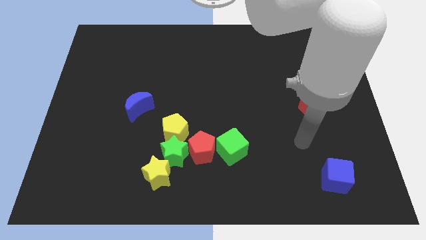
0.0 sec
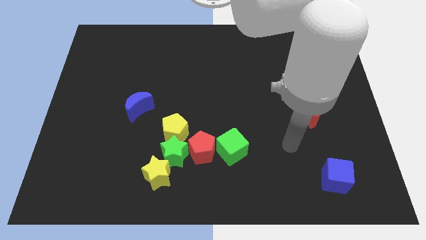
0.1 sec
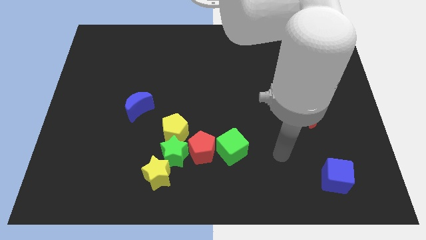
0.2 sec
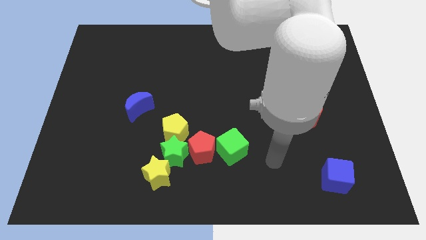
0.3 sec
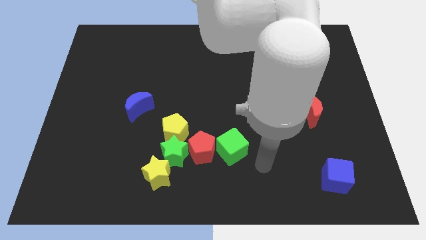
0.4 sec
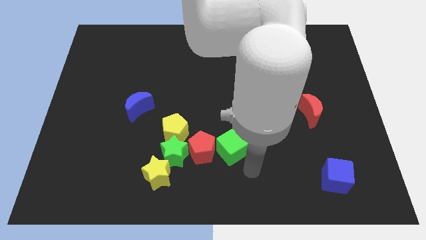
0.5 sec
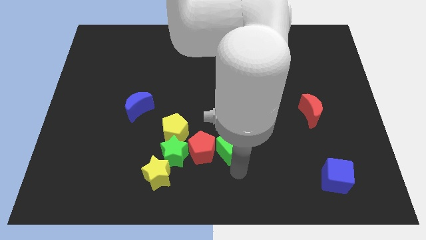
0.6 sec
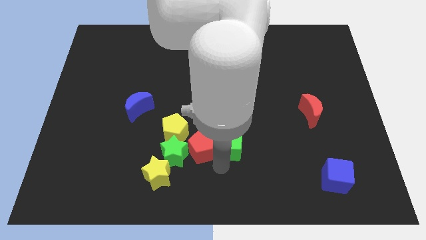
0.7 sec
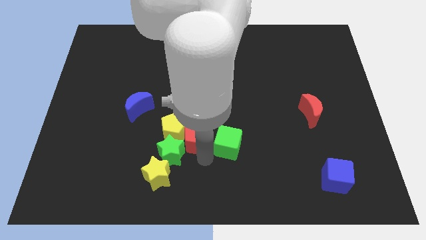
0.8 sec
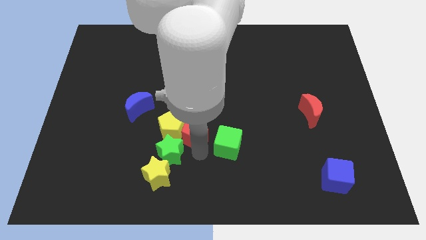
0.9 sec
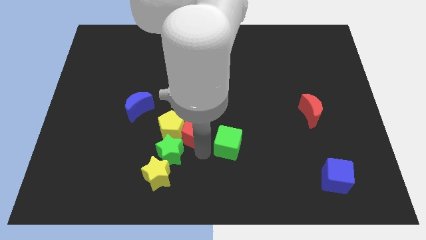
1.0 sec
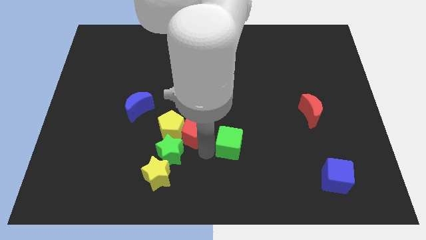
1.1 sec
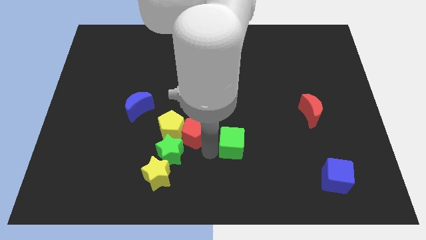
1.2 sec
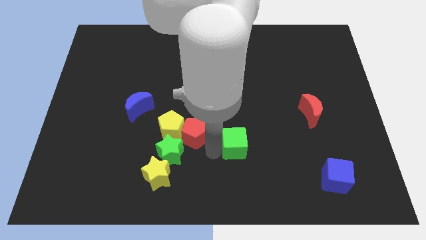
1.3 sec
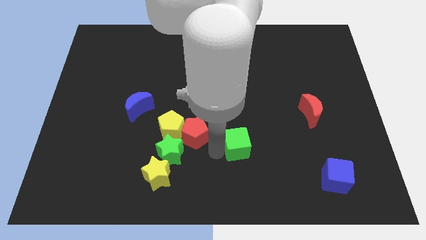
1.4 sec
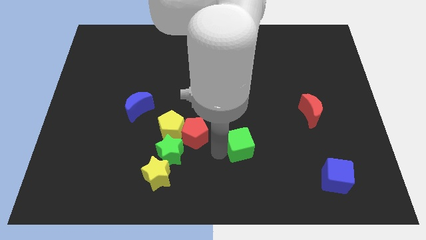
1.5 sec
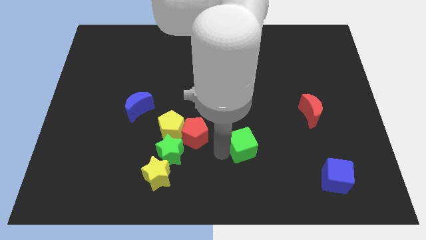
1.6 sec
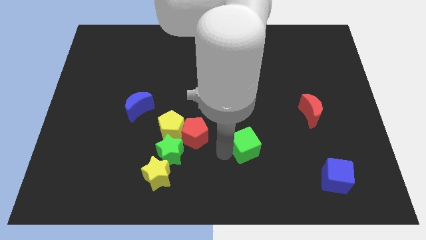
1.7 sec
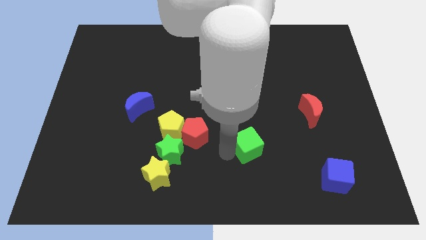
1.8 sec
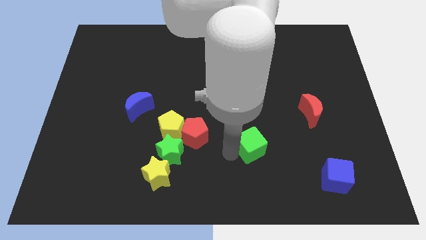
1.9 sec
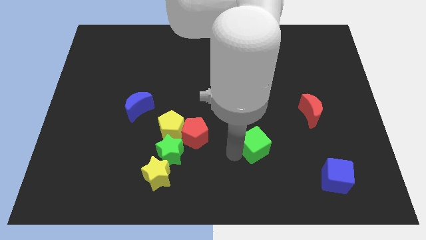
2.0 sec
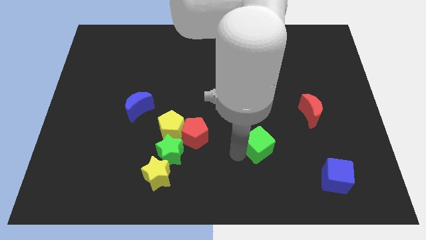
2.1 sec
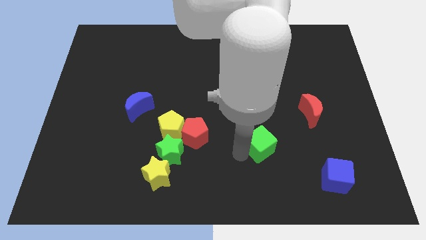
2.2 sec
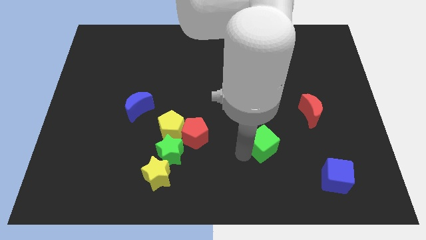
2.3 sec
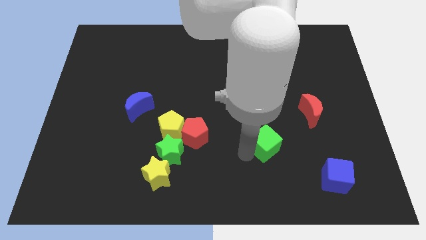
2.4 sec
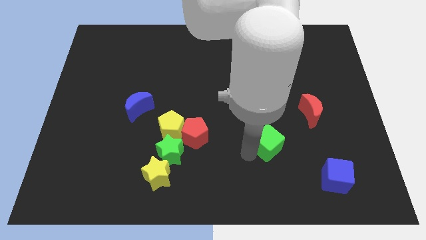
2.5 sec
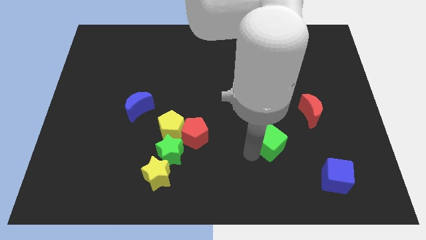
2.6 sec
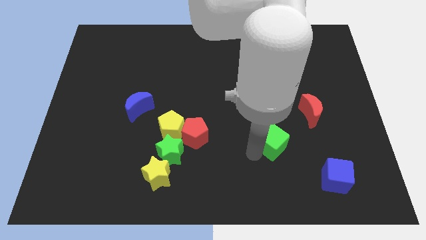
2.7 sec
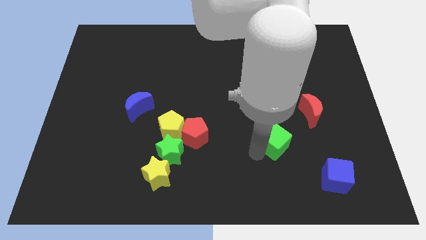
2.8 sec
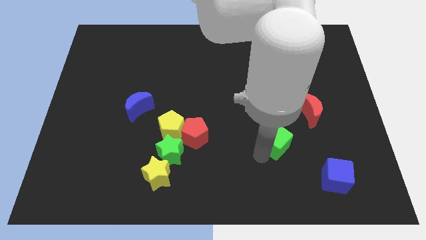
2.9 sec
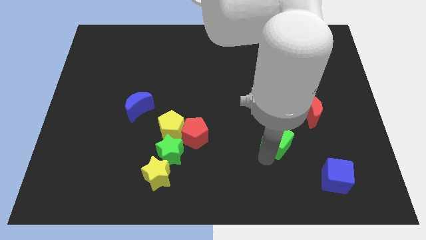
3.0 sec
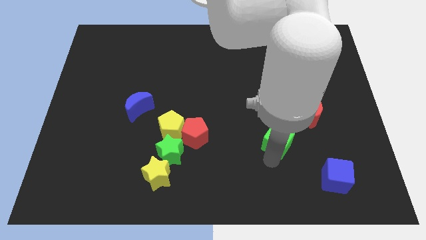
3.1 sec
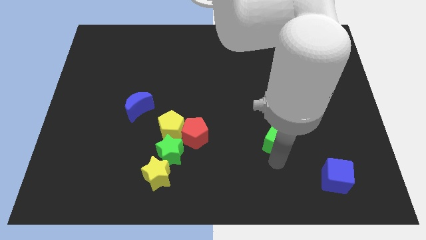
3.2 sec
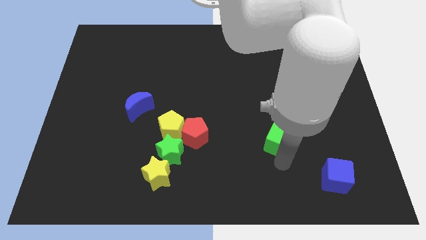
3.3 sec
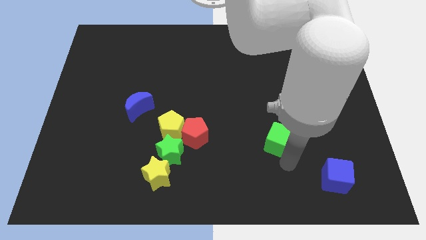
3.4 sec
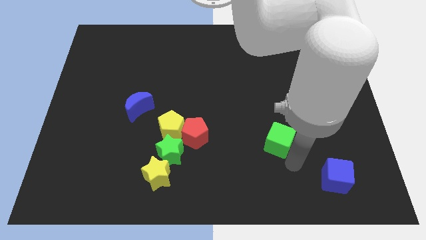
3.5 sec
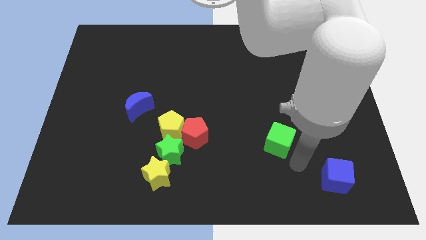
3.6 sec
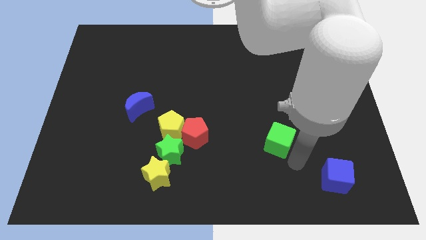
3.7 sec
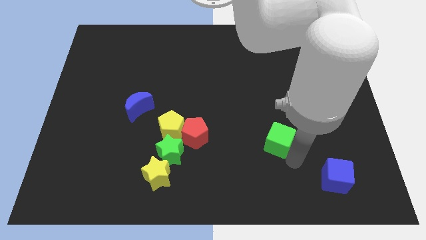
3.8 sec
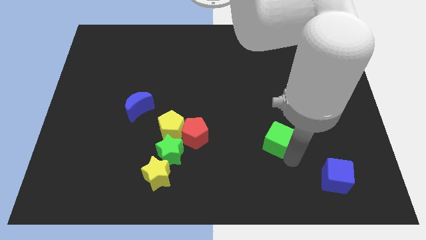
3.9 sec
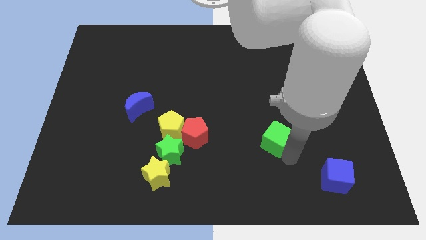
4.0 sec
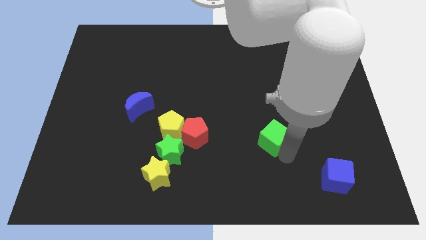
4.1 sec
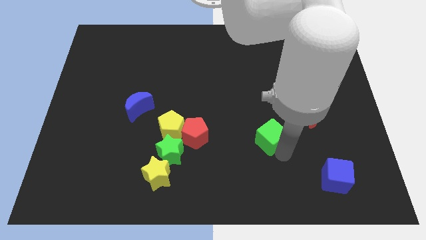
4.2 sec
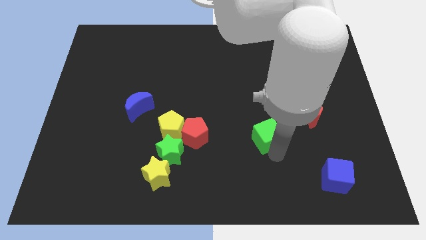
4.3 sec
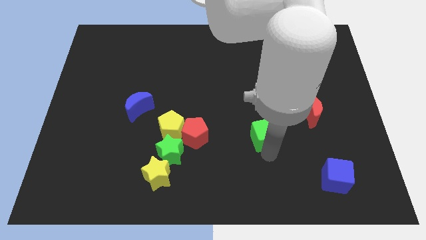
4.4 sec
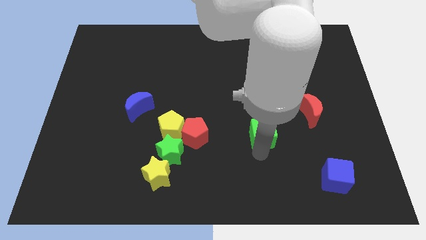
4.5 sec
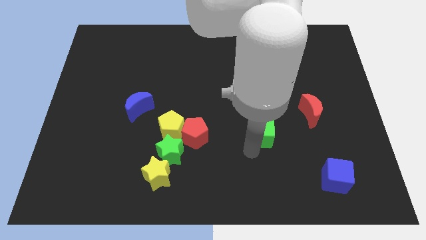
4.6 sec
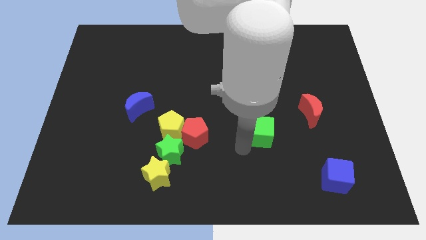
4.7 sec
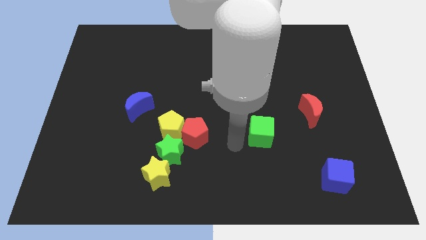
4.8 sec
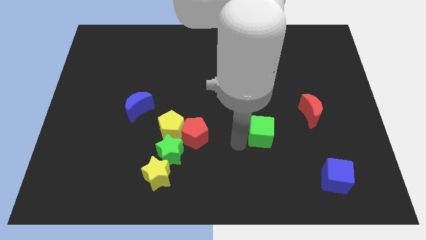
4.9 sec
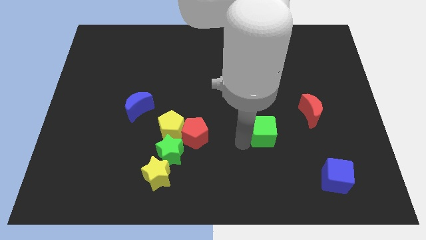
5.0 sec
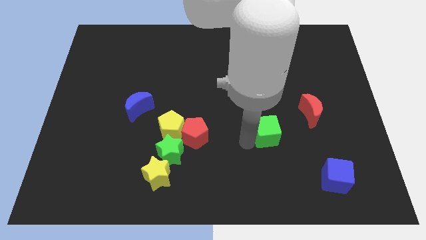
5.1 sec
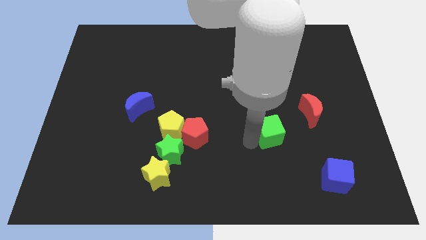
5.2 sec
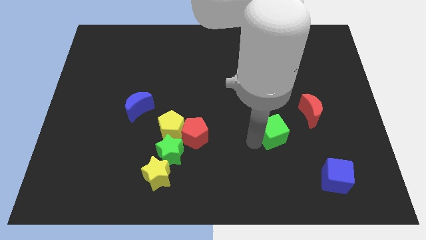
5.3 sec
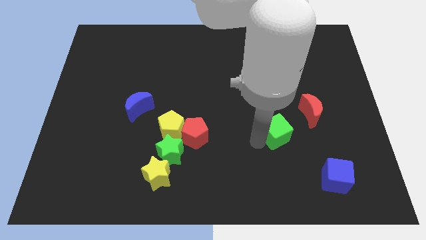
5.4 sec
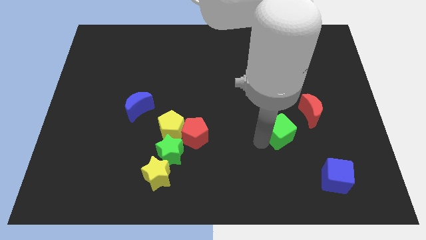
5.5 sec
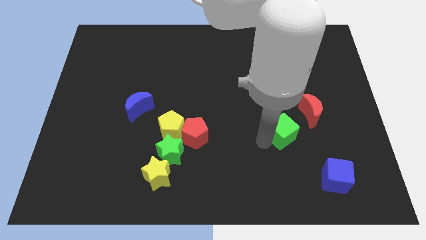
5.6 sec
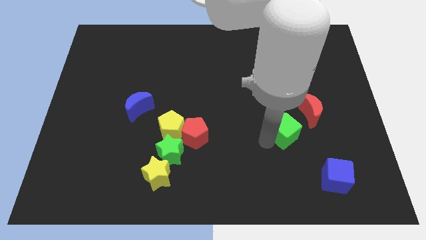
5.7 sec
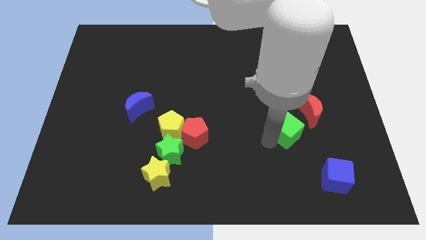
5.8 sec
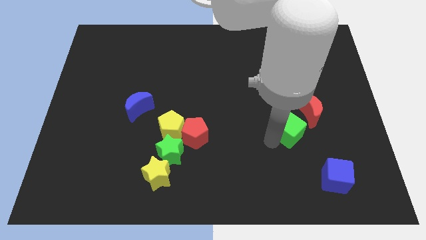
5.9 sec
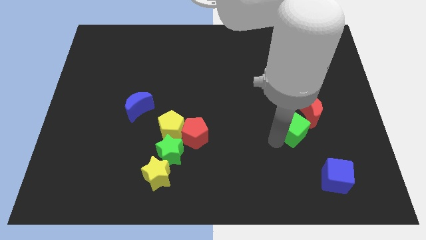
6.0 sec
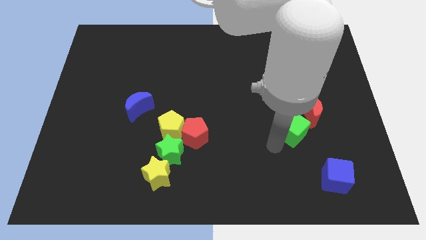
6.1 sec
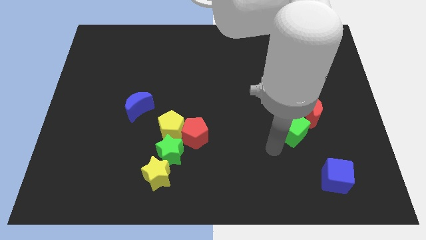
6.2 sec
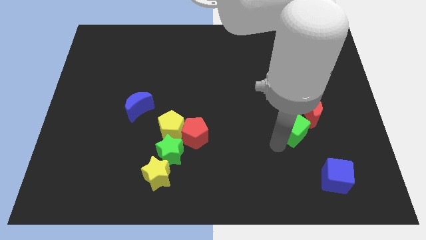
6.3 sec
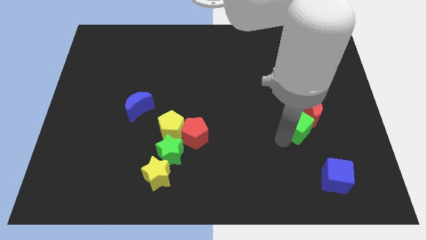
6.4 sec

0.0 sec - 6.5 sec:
slide the green cube close to the red moon

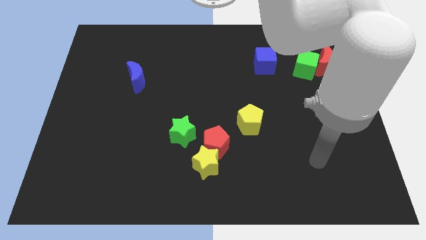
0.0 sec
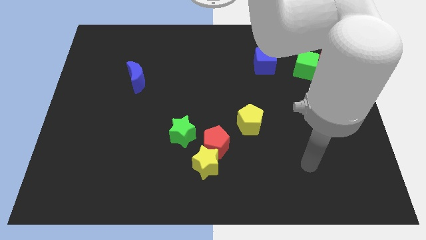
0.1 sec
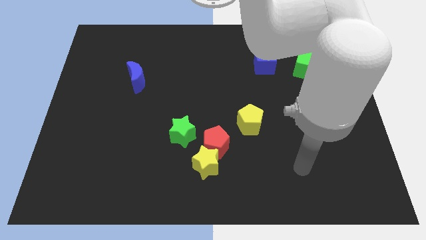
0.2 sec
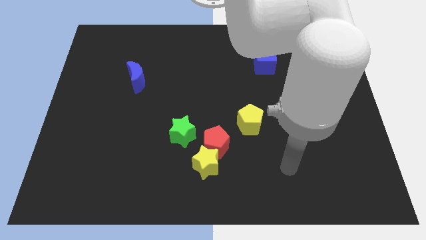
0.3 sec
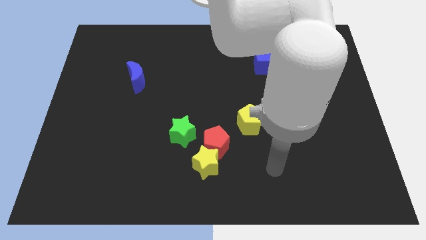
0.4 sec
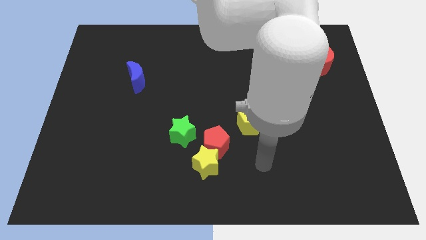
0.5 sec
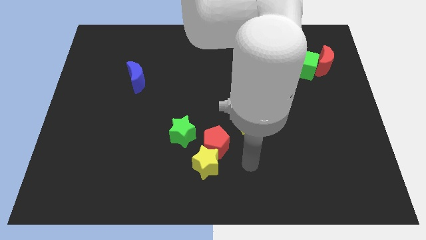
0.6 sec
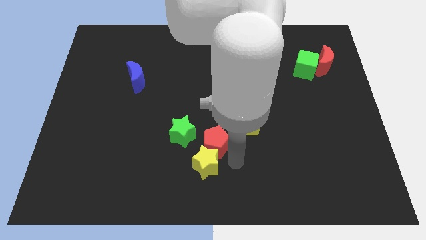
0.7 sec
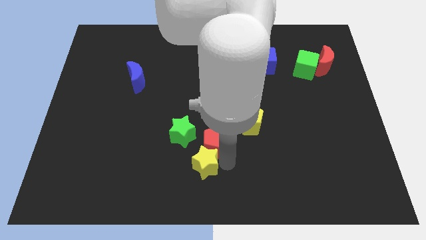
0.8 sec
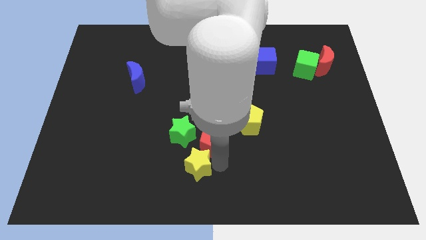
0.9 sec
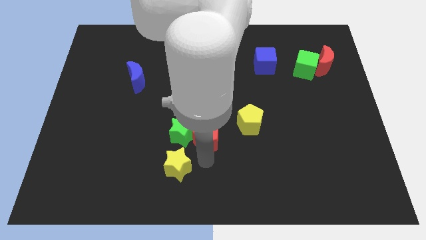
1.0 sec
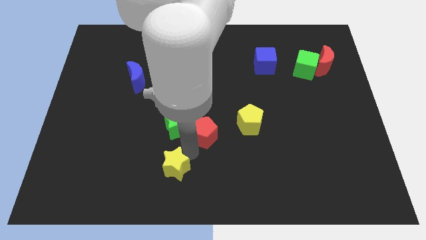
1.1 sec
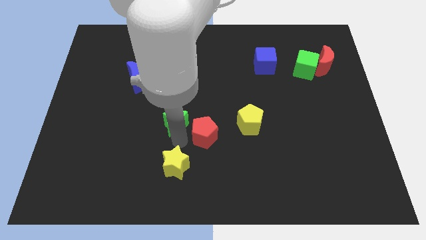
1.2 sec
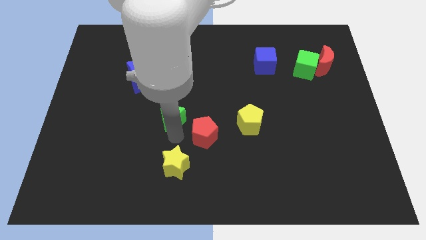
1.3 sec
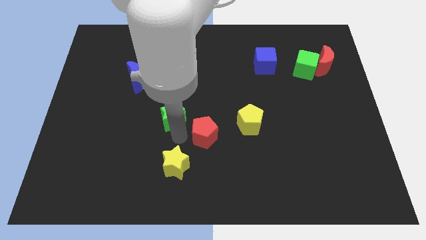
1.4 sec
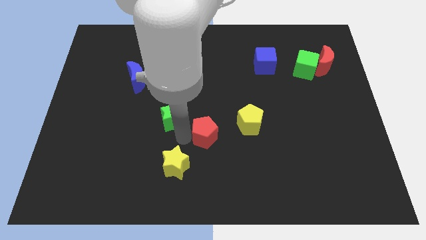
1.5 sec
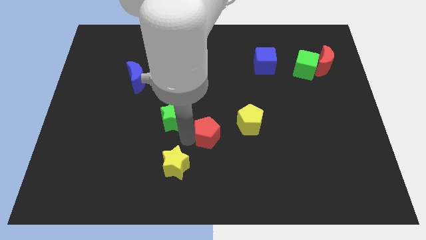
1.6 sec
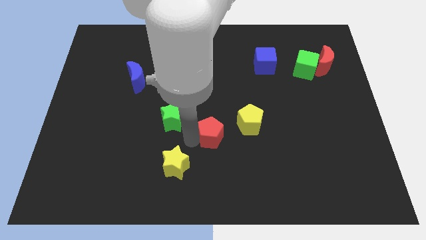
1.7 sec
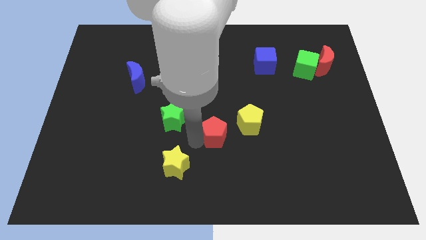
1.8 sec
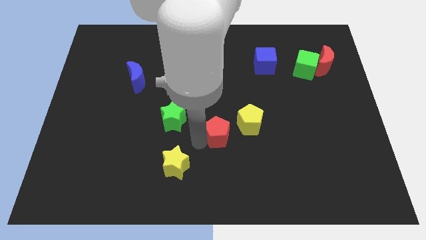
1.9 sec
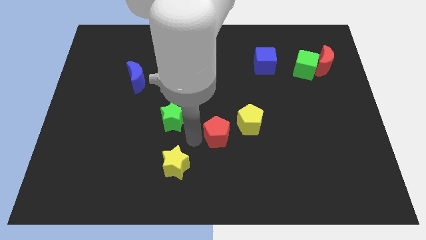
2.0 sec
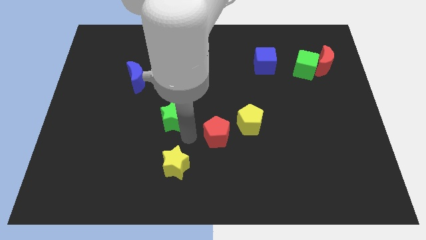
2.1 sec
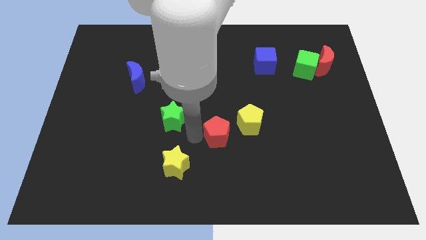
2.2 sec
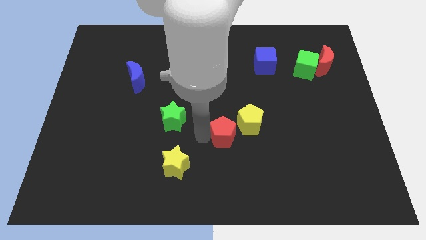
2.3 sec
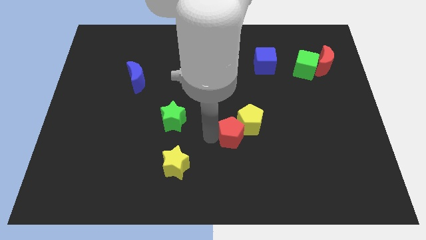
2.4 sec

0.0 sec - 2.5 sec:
slide the red pentagon towards the yellow pentagon
